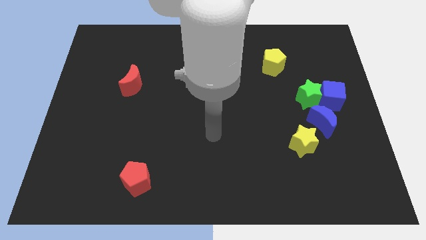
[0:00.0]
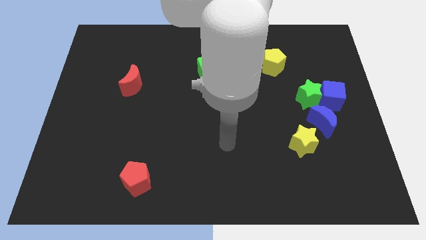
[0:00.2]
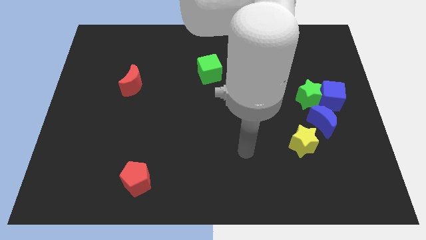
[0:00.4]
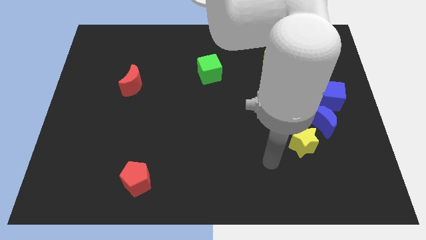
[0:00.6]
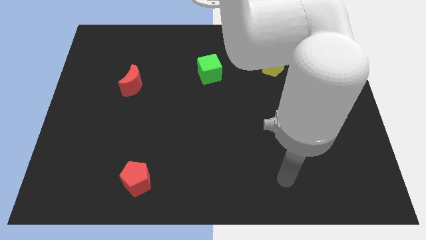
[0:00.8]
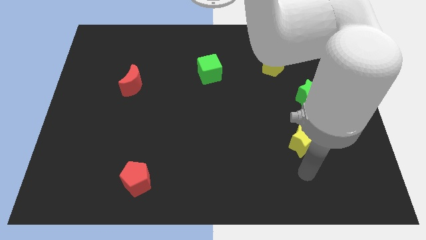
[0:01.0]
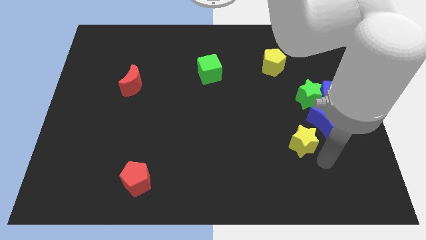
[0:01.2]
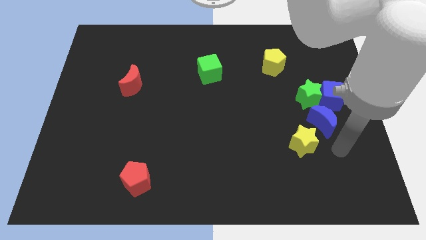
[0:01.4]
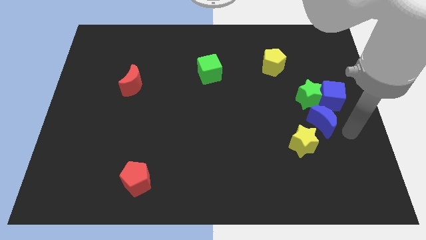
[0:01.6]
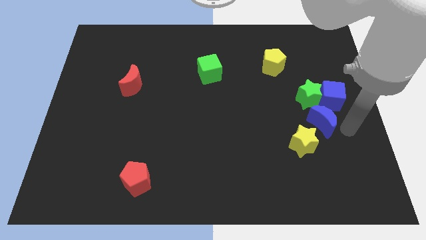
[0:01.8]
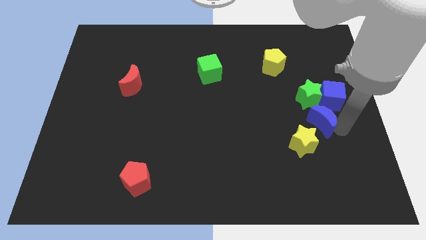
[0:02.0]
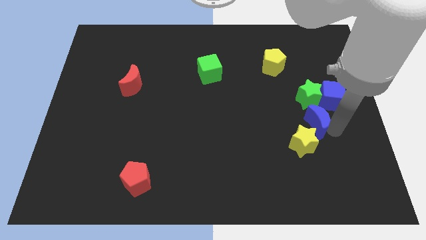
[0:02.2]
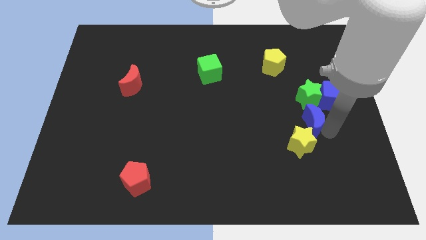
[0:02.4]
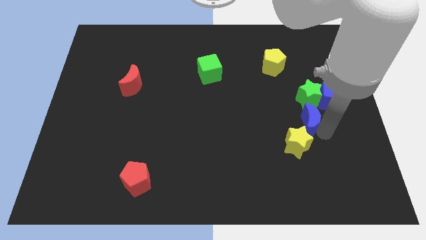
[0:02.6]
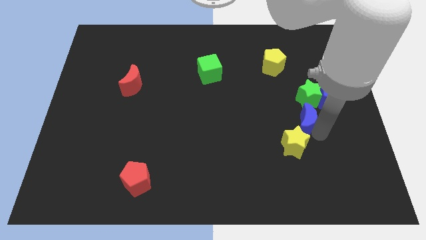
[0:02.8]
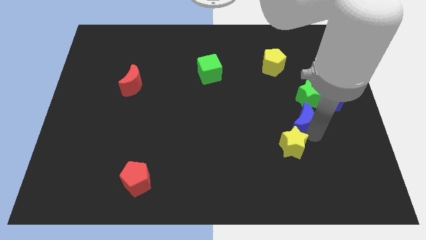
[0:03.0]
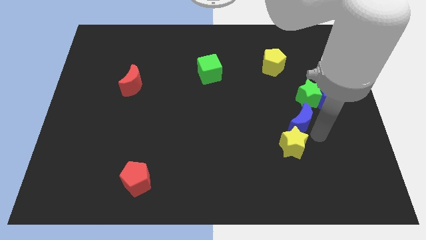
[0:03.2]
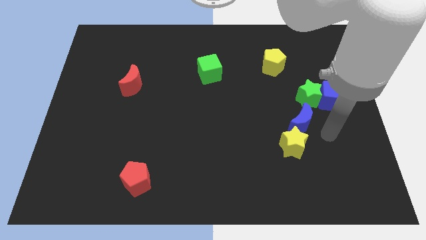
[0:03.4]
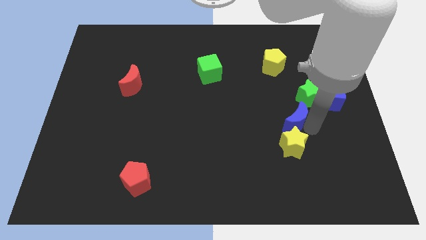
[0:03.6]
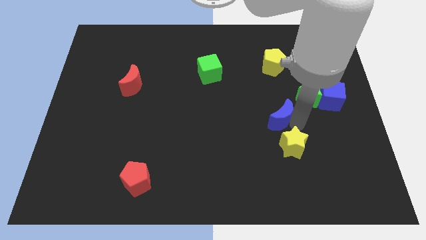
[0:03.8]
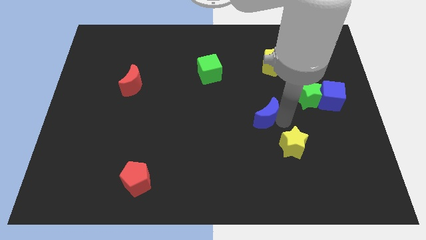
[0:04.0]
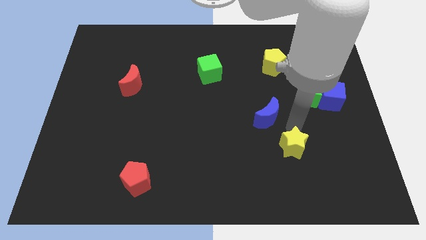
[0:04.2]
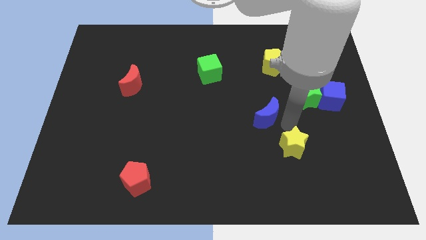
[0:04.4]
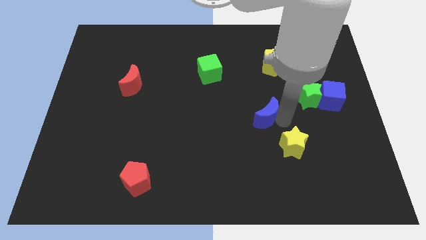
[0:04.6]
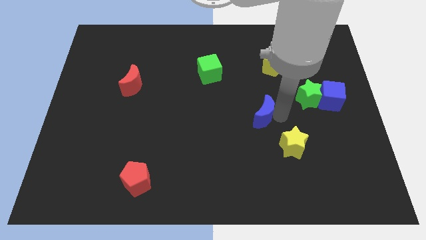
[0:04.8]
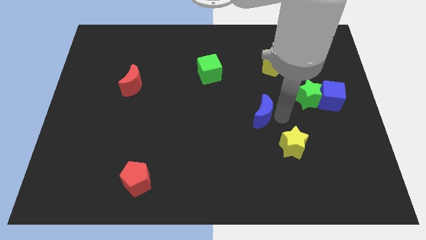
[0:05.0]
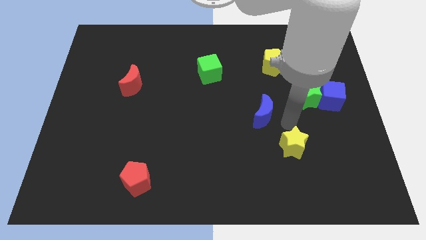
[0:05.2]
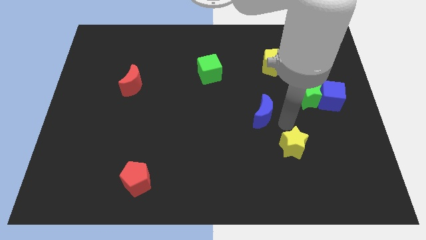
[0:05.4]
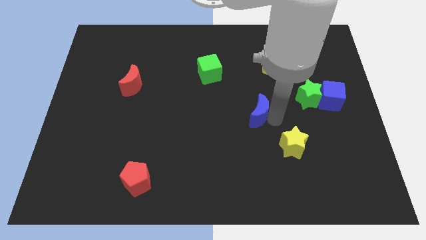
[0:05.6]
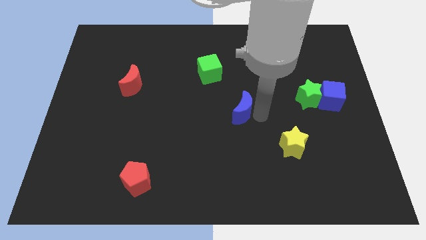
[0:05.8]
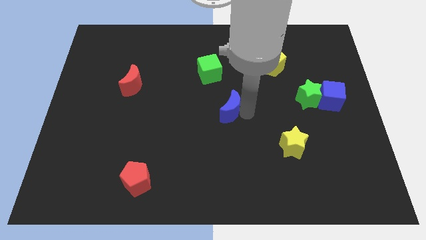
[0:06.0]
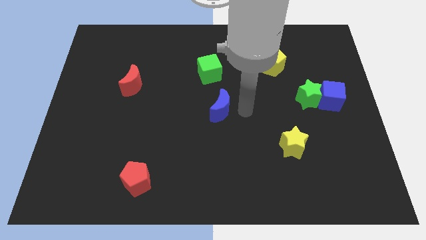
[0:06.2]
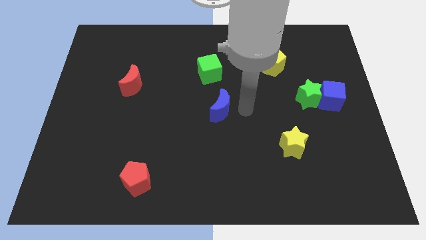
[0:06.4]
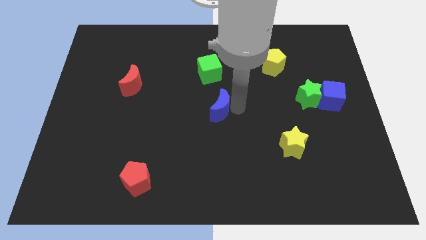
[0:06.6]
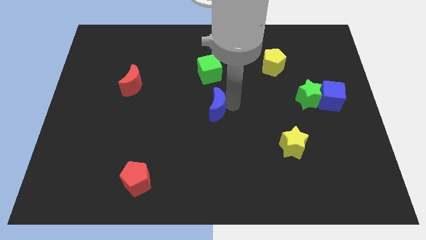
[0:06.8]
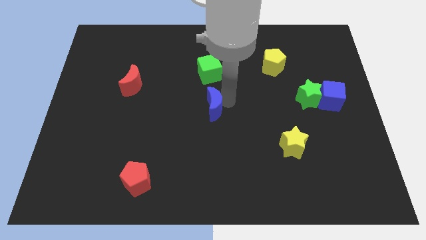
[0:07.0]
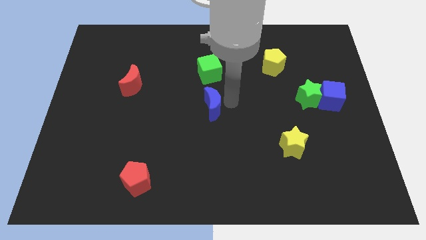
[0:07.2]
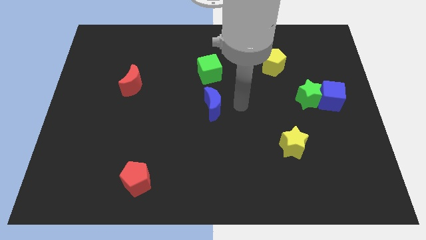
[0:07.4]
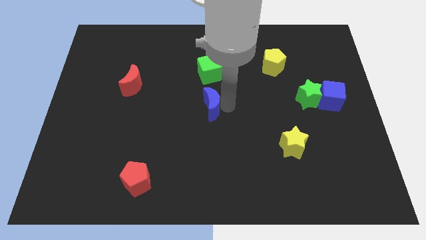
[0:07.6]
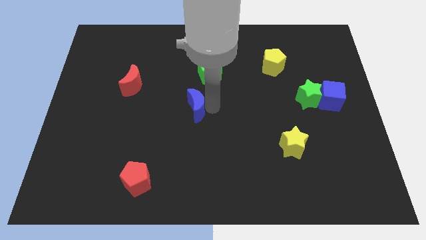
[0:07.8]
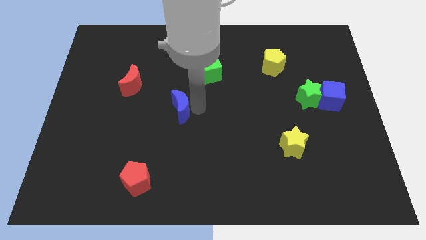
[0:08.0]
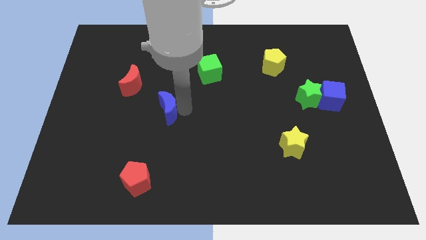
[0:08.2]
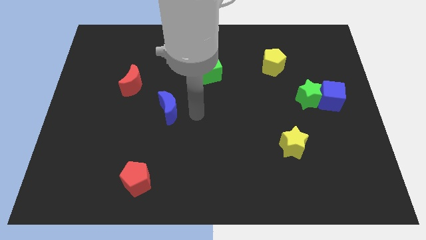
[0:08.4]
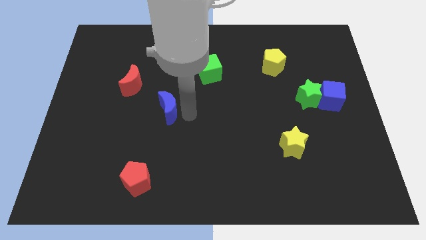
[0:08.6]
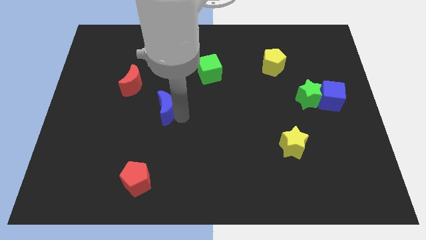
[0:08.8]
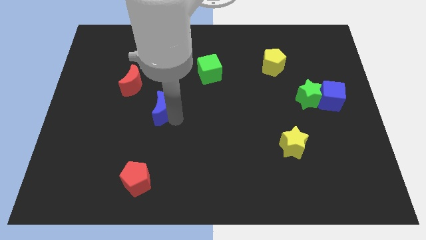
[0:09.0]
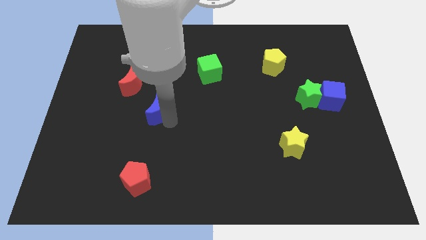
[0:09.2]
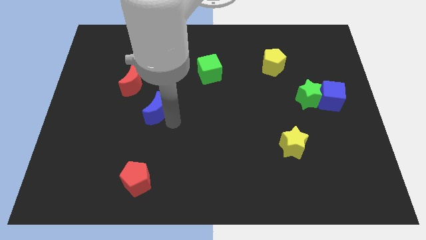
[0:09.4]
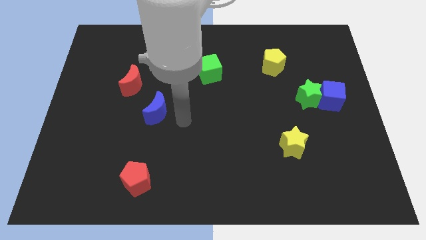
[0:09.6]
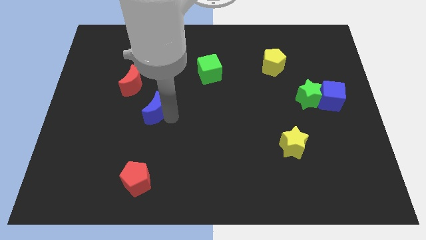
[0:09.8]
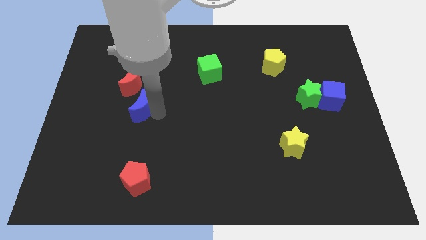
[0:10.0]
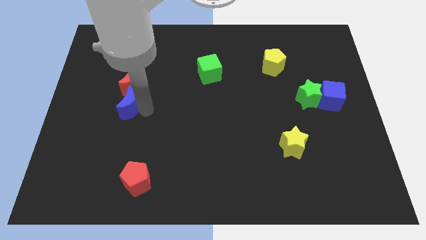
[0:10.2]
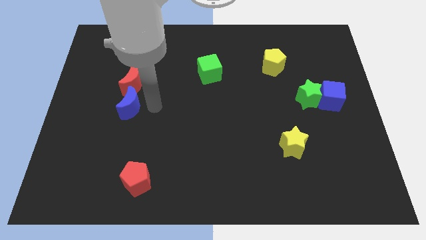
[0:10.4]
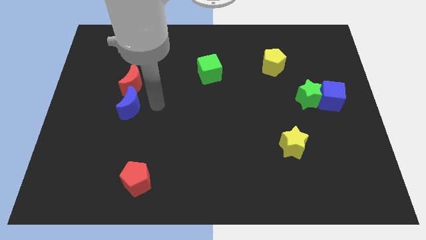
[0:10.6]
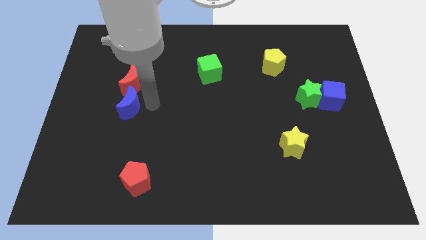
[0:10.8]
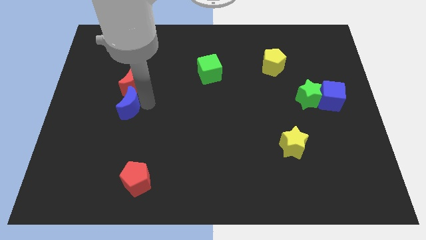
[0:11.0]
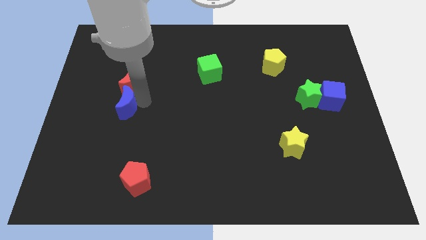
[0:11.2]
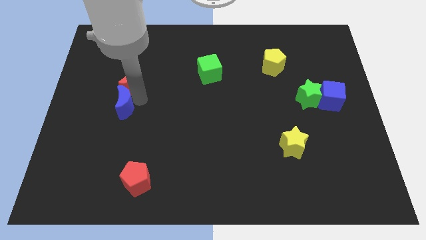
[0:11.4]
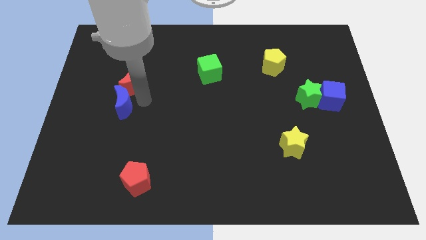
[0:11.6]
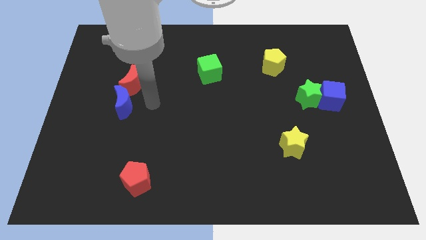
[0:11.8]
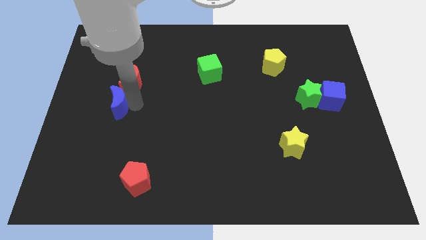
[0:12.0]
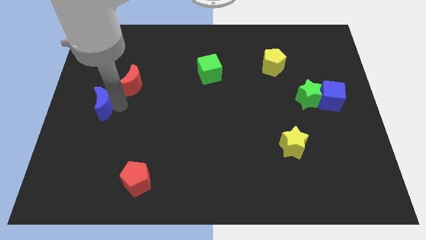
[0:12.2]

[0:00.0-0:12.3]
push the blue moon to the left side
